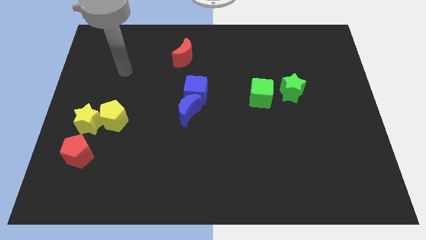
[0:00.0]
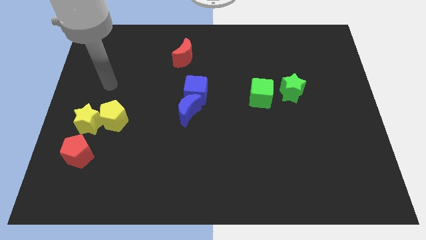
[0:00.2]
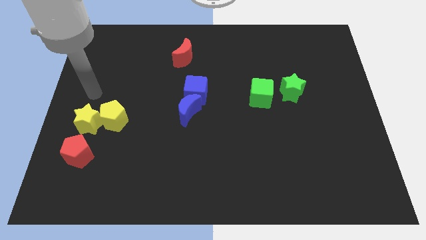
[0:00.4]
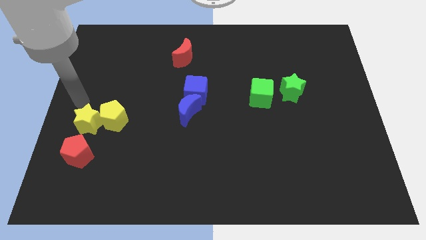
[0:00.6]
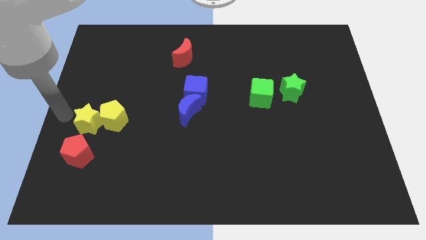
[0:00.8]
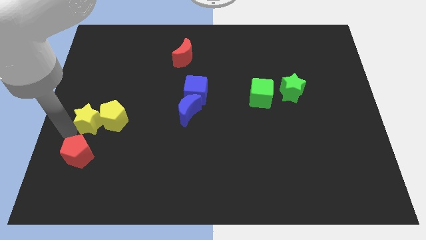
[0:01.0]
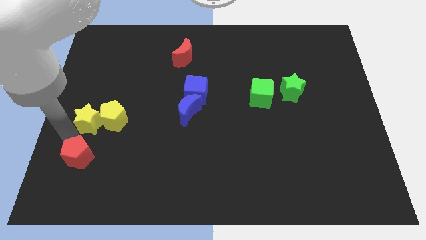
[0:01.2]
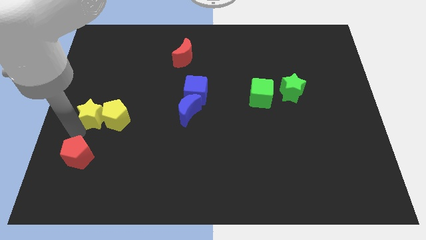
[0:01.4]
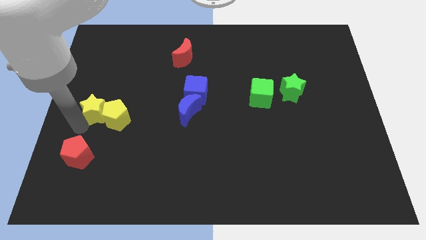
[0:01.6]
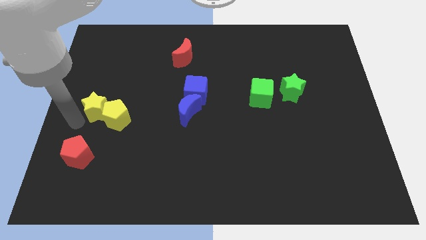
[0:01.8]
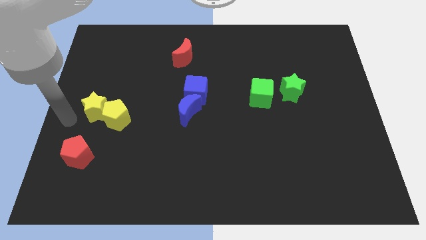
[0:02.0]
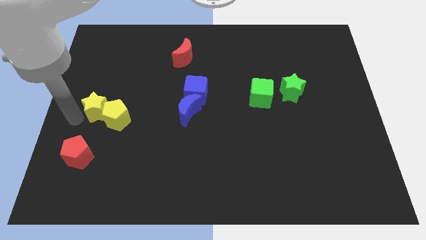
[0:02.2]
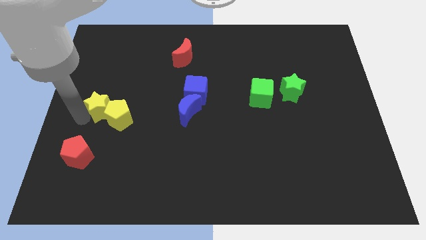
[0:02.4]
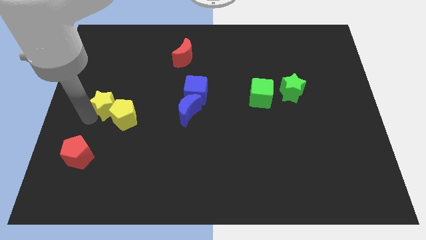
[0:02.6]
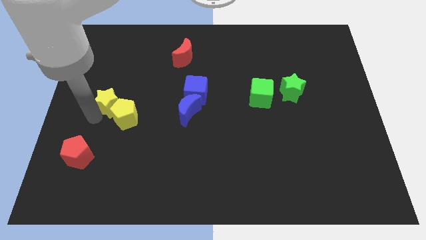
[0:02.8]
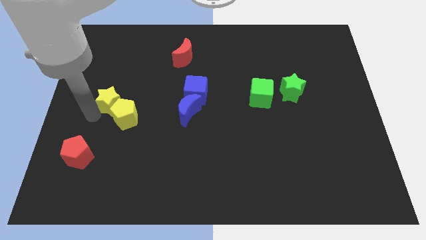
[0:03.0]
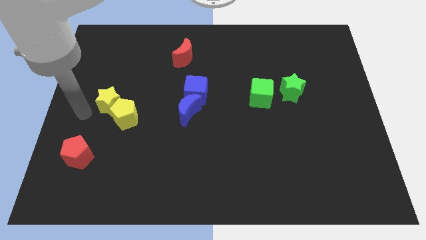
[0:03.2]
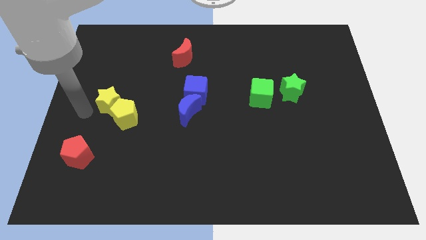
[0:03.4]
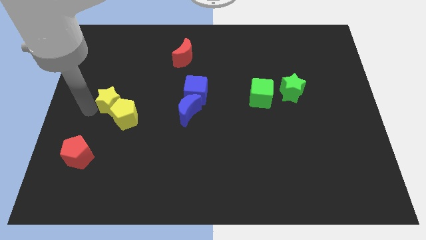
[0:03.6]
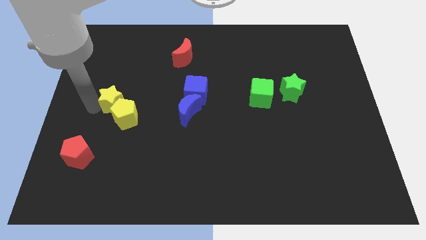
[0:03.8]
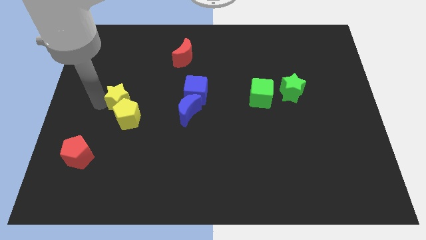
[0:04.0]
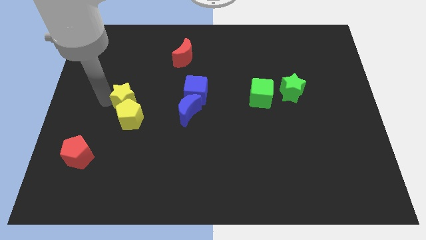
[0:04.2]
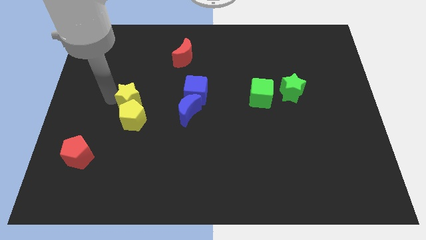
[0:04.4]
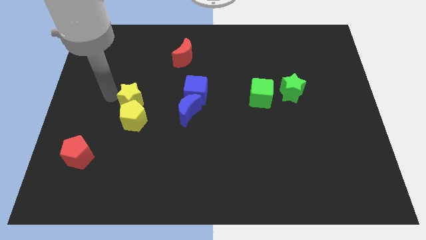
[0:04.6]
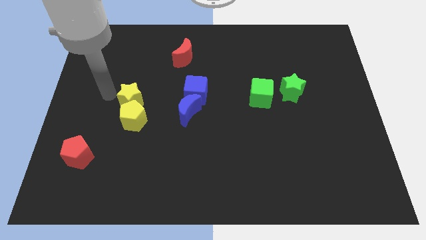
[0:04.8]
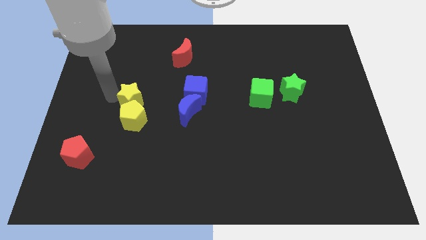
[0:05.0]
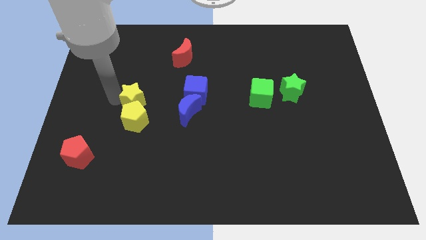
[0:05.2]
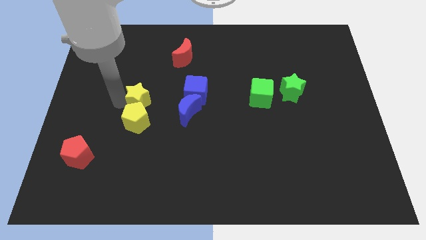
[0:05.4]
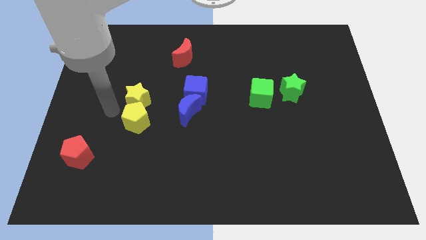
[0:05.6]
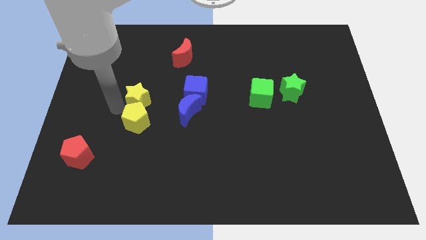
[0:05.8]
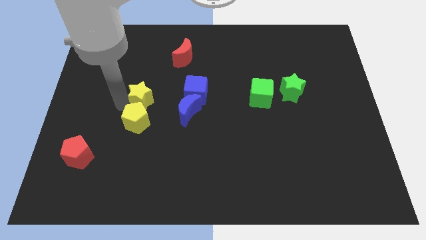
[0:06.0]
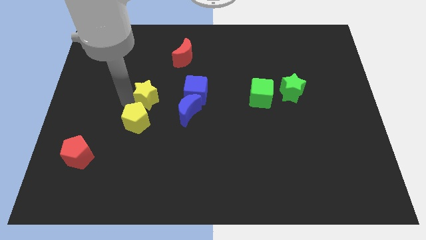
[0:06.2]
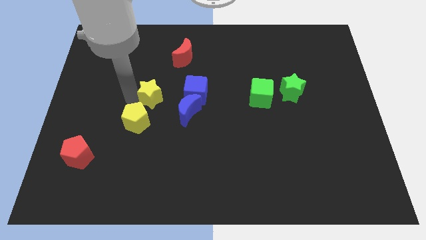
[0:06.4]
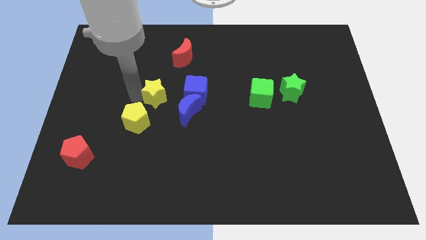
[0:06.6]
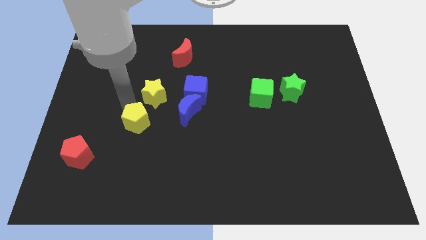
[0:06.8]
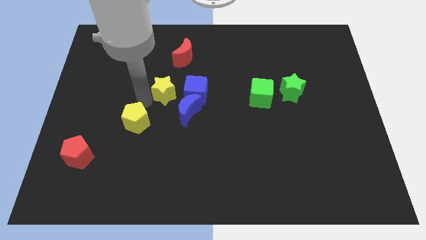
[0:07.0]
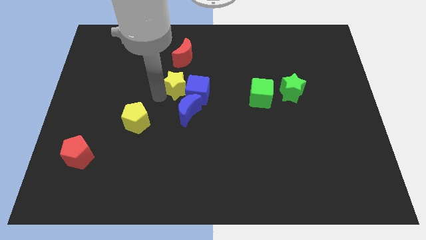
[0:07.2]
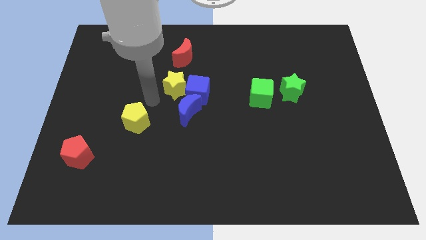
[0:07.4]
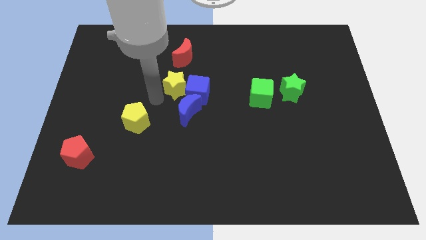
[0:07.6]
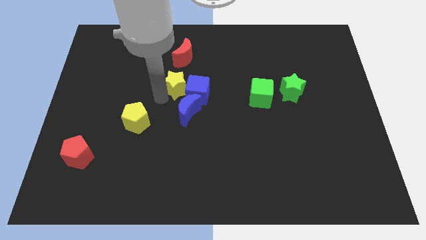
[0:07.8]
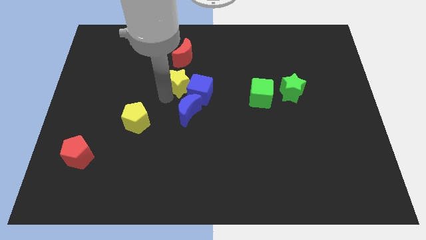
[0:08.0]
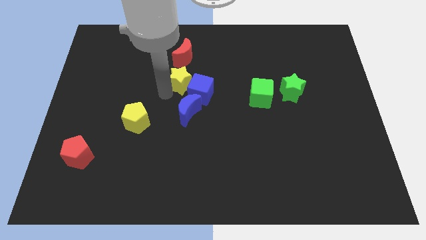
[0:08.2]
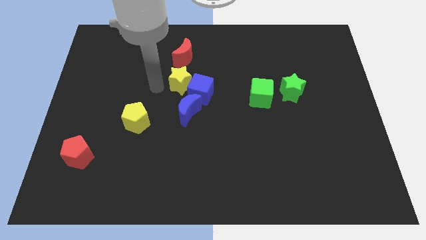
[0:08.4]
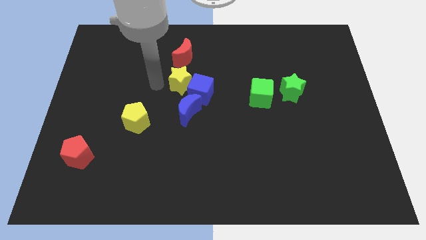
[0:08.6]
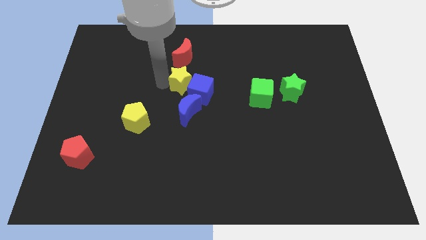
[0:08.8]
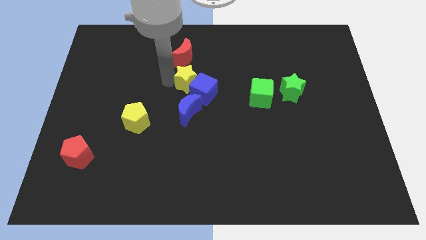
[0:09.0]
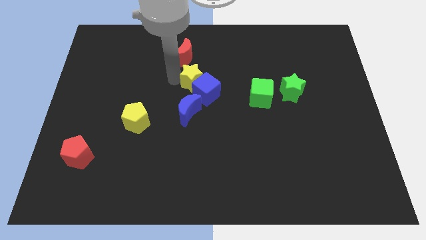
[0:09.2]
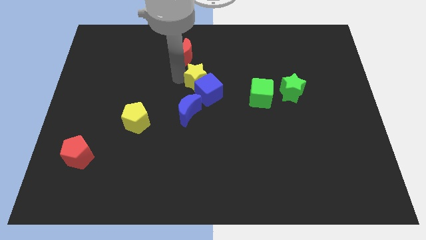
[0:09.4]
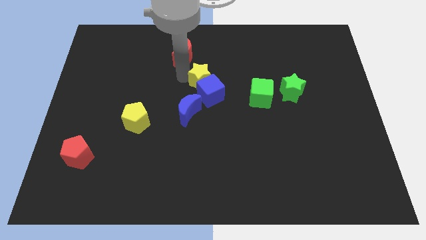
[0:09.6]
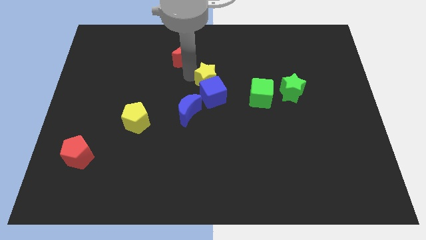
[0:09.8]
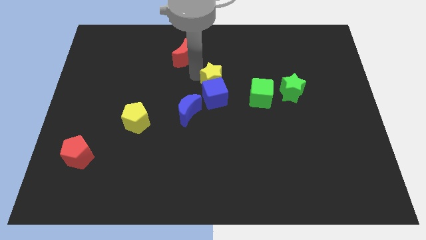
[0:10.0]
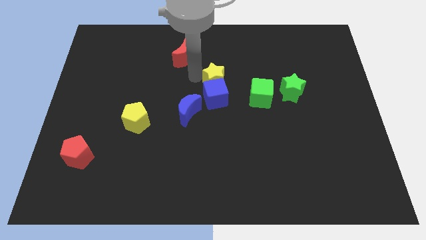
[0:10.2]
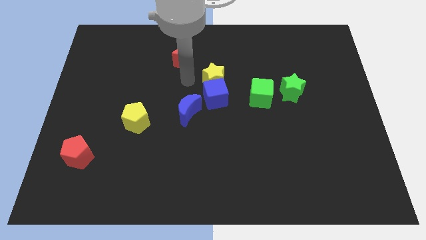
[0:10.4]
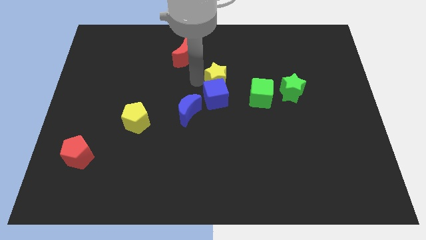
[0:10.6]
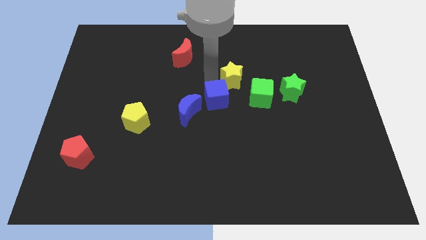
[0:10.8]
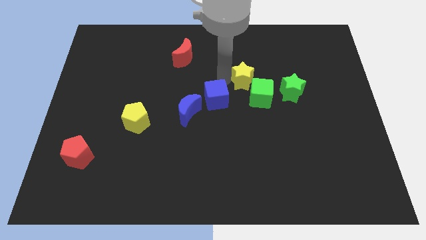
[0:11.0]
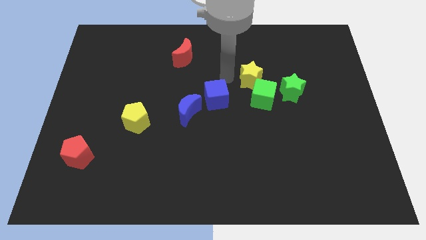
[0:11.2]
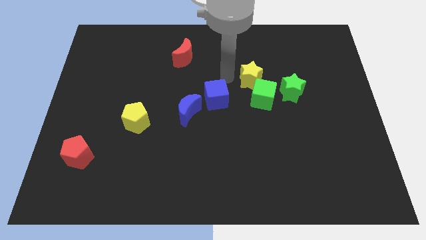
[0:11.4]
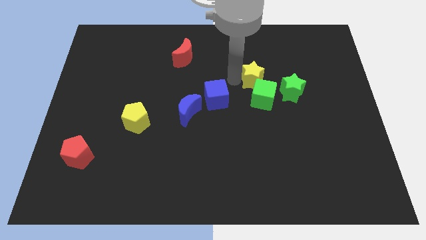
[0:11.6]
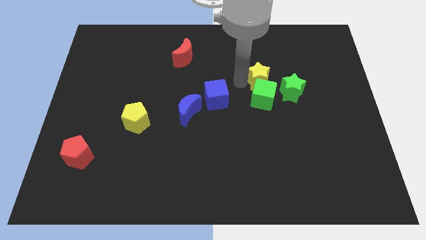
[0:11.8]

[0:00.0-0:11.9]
slide the yellow star diagonally up and to the right of the green cube
